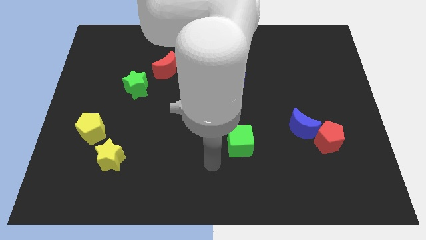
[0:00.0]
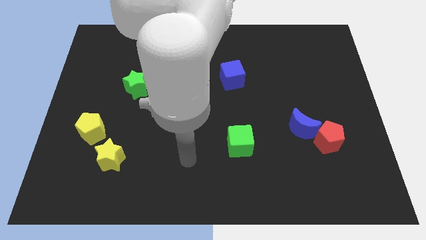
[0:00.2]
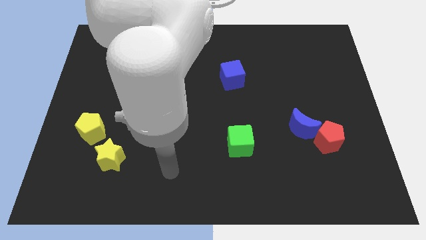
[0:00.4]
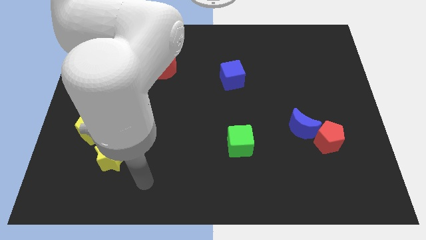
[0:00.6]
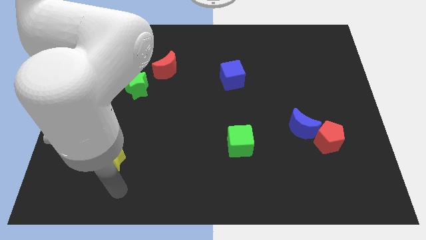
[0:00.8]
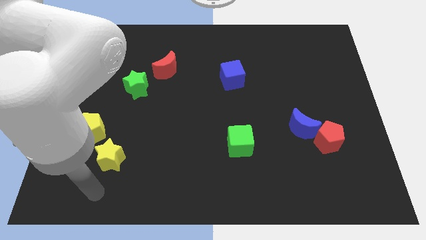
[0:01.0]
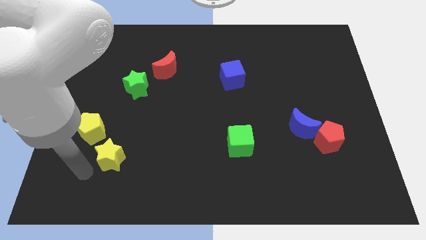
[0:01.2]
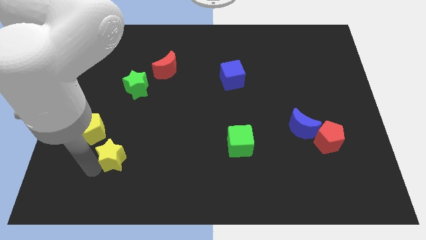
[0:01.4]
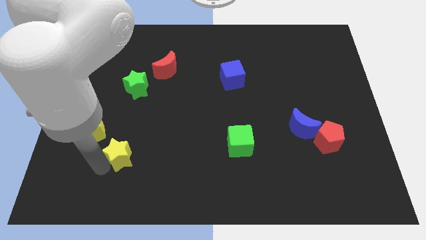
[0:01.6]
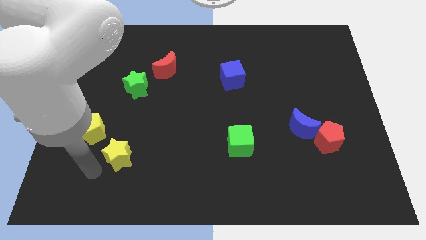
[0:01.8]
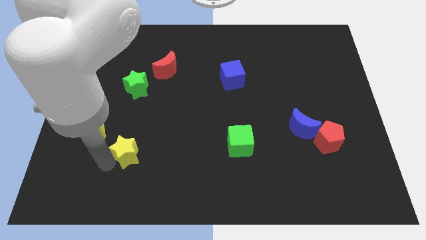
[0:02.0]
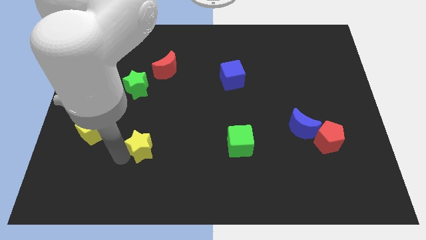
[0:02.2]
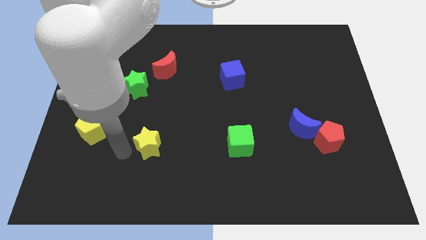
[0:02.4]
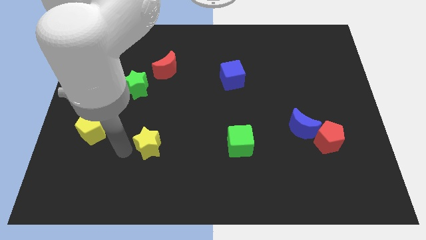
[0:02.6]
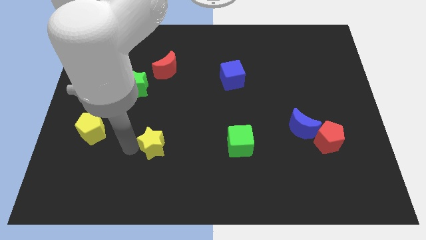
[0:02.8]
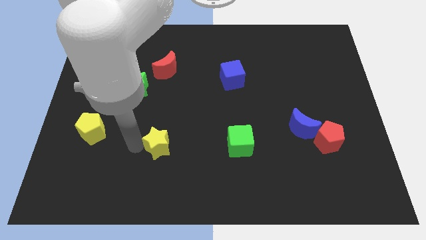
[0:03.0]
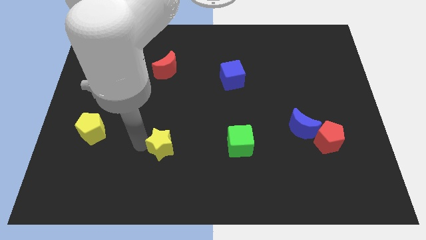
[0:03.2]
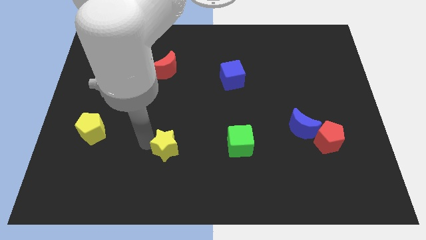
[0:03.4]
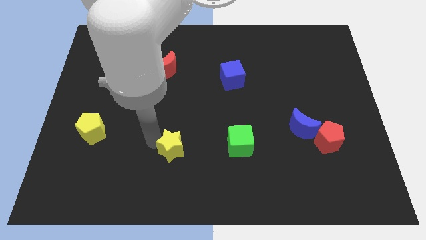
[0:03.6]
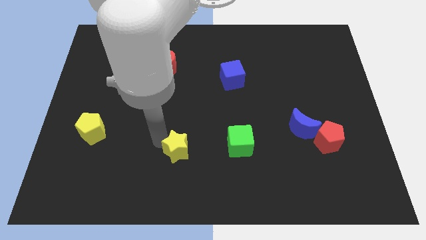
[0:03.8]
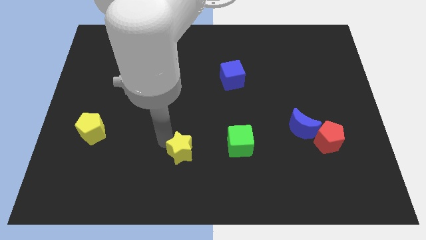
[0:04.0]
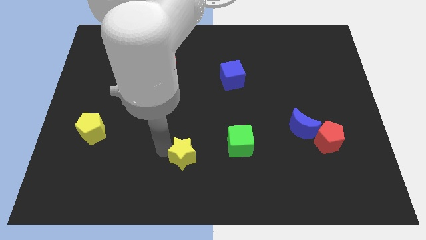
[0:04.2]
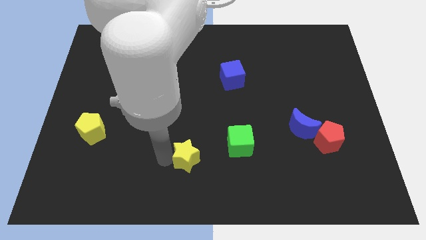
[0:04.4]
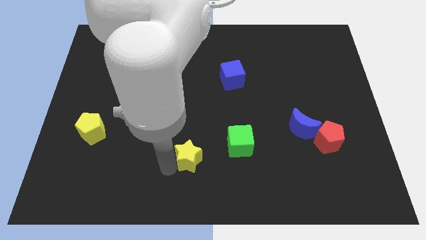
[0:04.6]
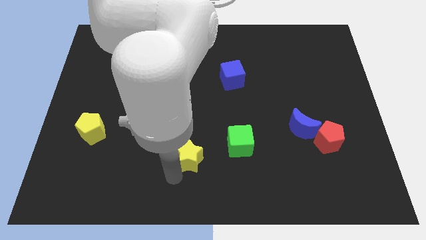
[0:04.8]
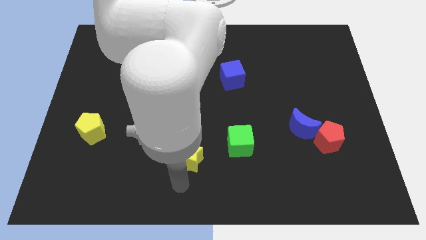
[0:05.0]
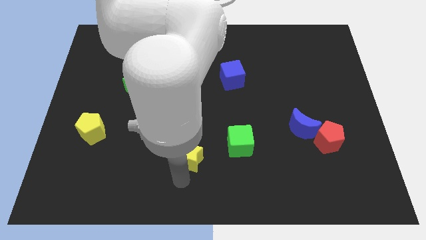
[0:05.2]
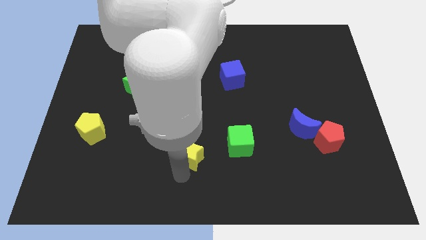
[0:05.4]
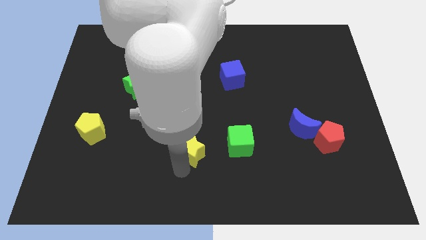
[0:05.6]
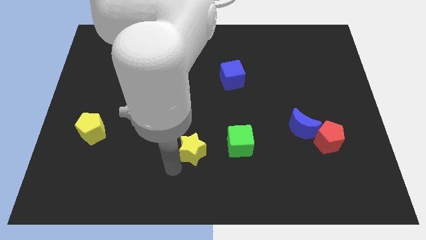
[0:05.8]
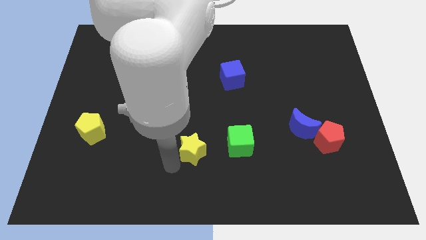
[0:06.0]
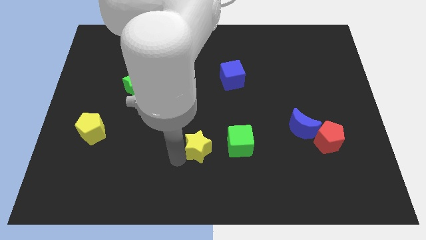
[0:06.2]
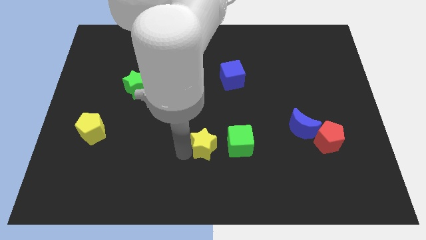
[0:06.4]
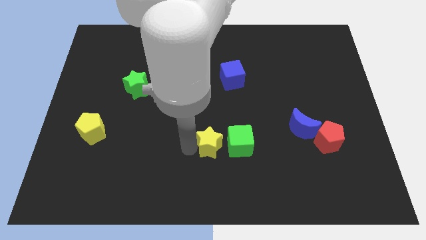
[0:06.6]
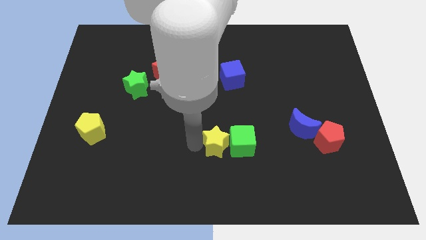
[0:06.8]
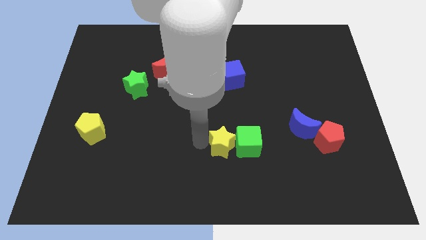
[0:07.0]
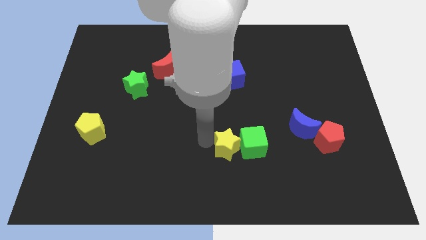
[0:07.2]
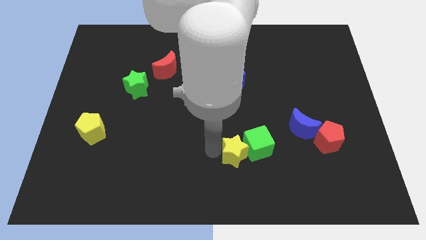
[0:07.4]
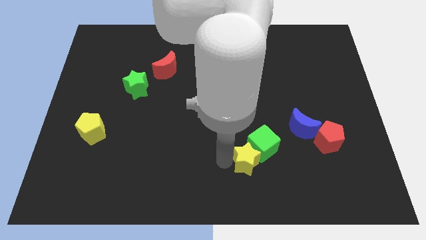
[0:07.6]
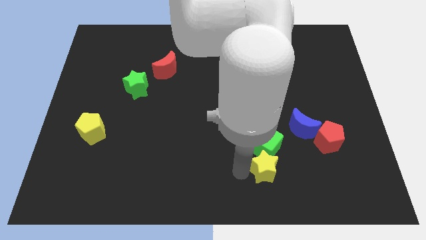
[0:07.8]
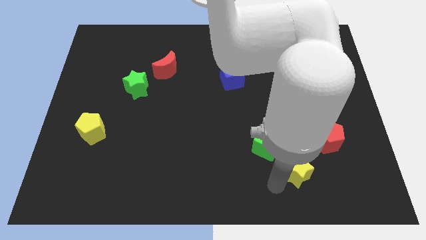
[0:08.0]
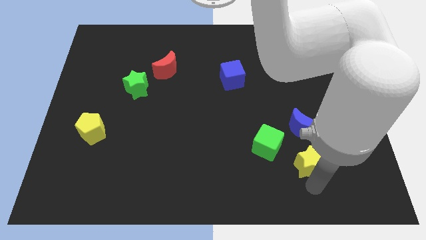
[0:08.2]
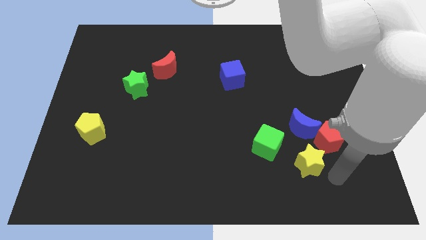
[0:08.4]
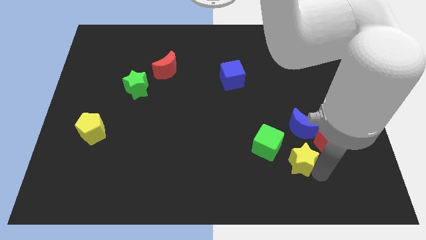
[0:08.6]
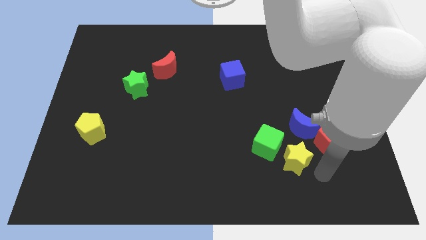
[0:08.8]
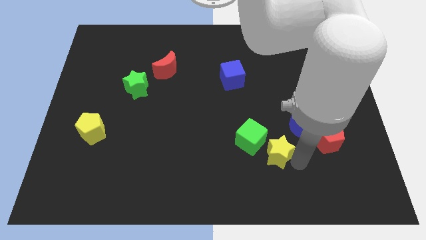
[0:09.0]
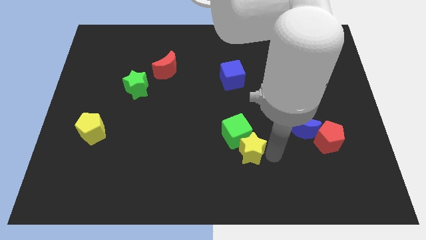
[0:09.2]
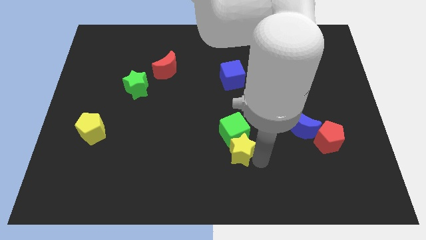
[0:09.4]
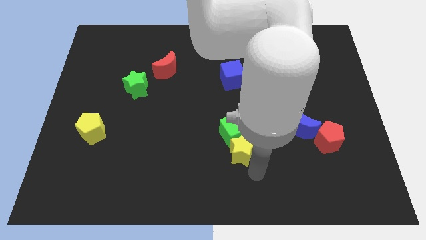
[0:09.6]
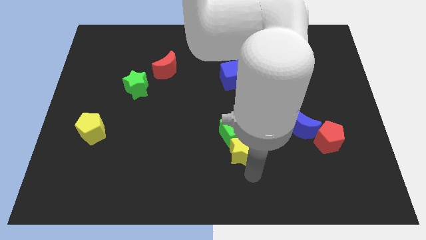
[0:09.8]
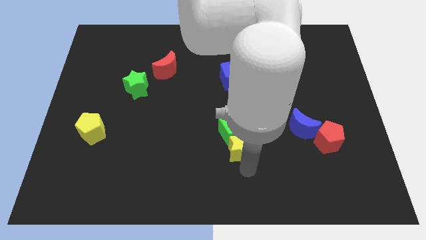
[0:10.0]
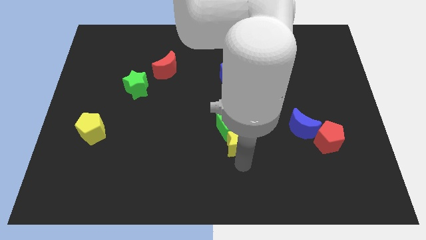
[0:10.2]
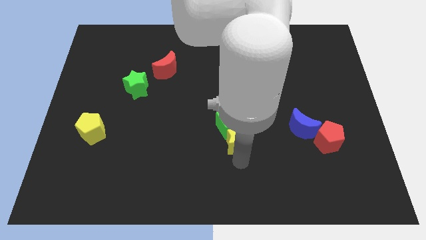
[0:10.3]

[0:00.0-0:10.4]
push the yellow star left of the blue moon

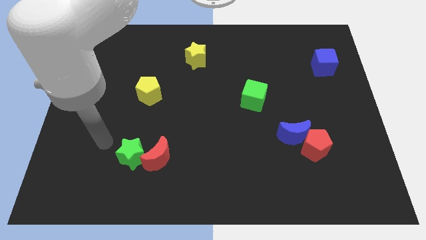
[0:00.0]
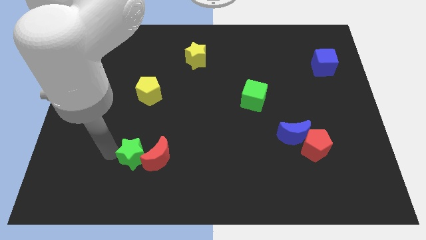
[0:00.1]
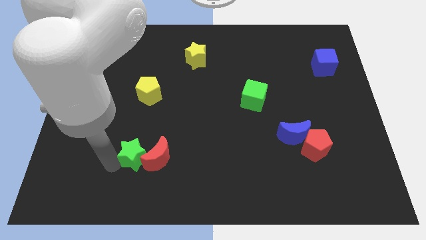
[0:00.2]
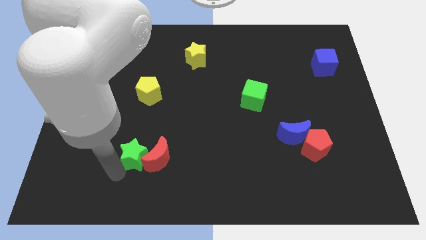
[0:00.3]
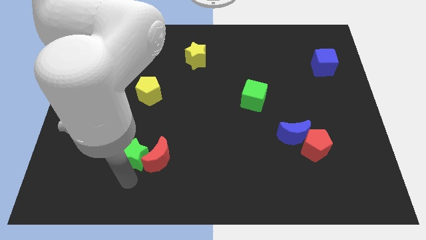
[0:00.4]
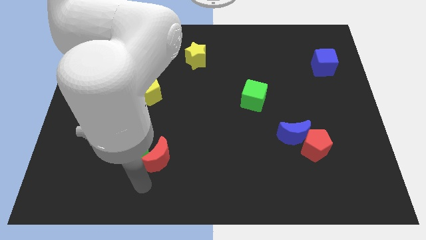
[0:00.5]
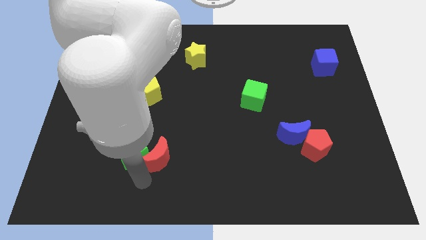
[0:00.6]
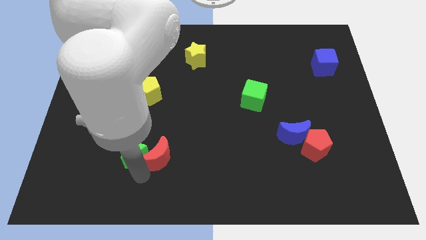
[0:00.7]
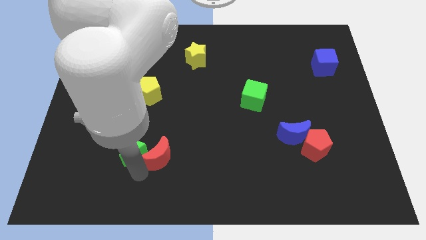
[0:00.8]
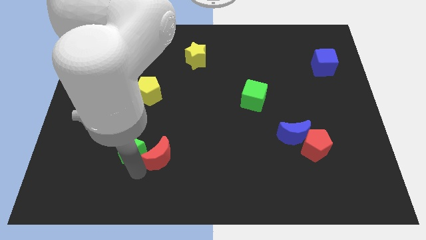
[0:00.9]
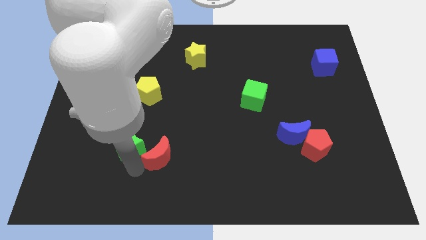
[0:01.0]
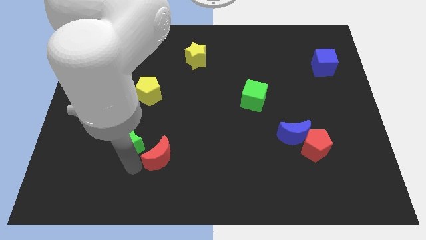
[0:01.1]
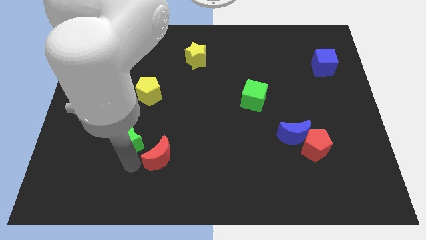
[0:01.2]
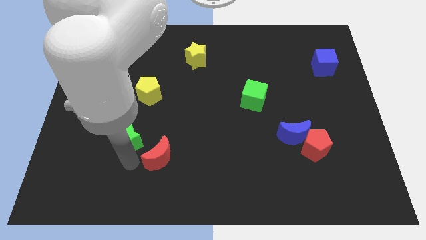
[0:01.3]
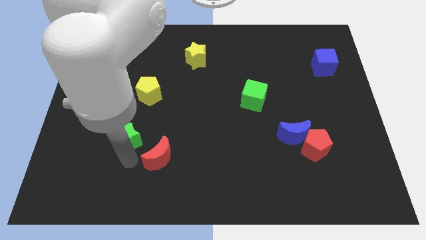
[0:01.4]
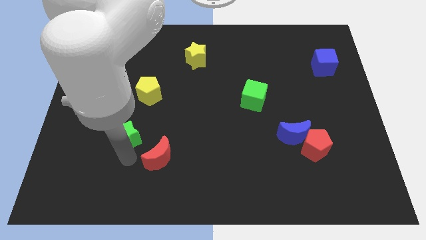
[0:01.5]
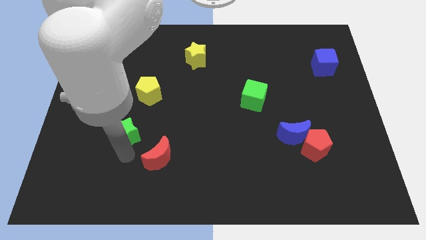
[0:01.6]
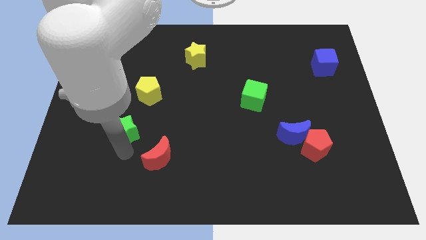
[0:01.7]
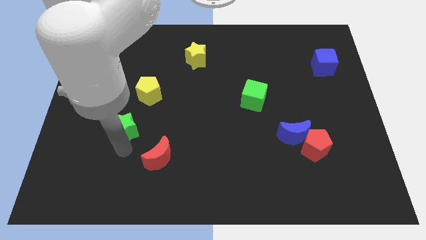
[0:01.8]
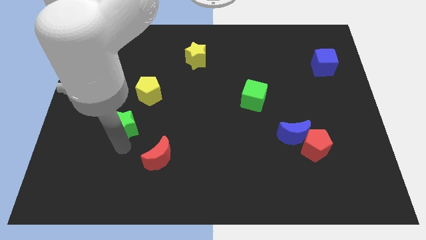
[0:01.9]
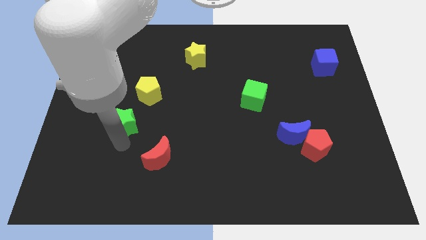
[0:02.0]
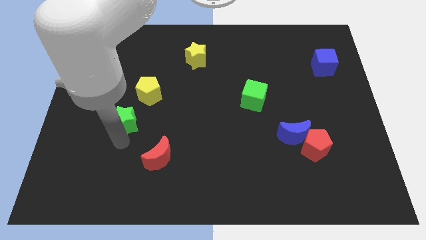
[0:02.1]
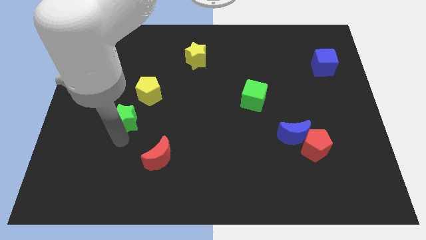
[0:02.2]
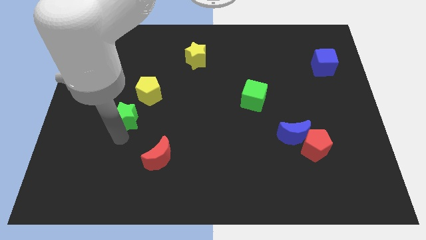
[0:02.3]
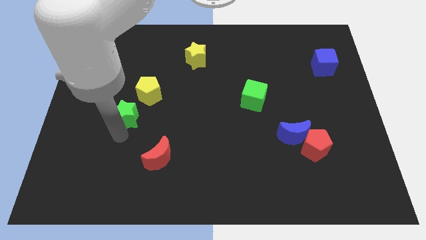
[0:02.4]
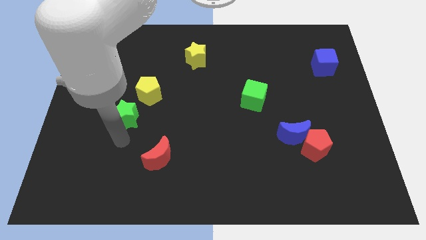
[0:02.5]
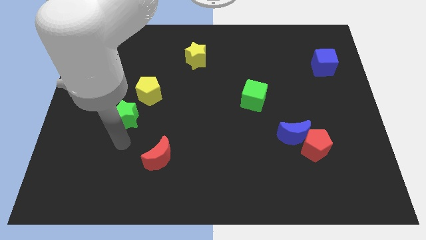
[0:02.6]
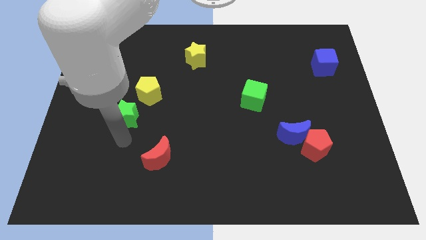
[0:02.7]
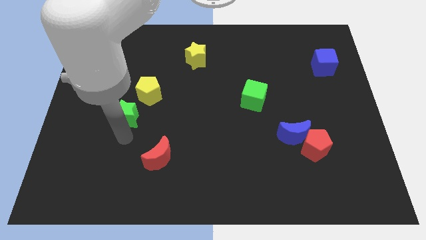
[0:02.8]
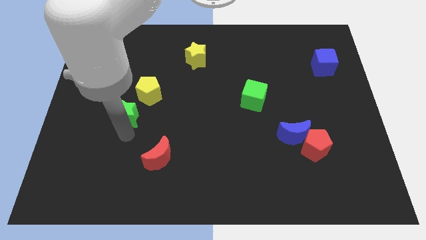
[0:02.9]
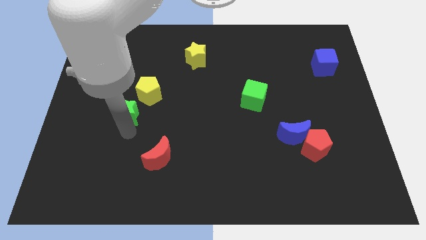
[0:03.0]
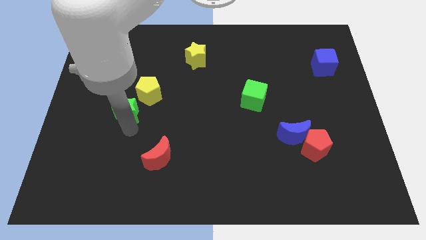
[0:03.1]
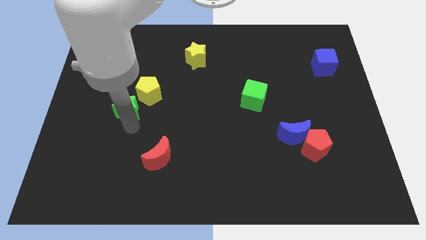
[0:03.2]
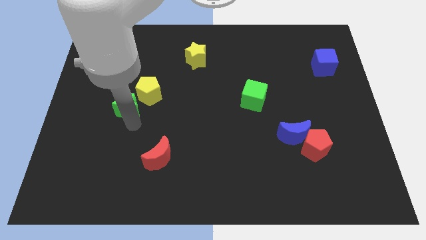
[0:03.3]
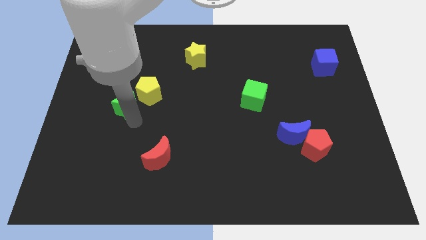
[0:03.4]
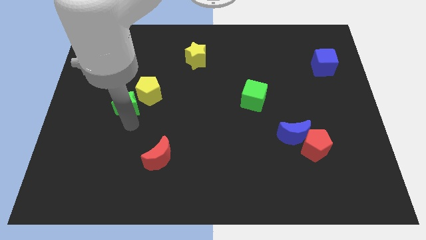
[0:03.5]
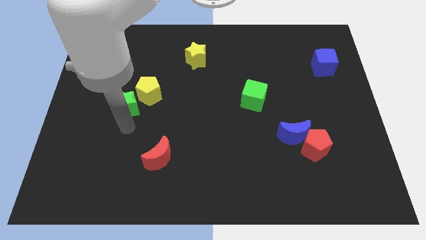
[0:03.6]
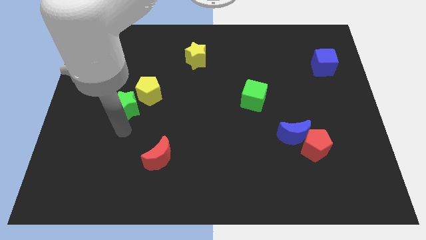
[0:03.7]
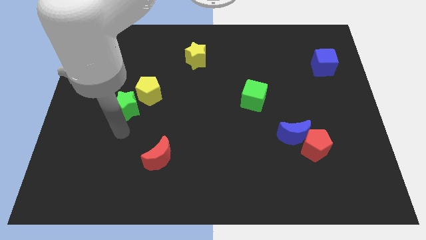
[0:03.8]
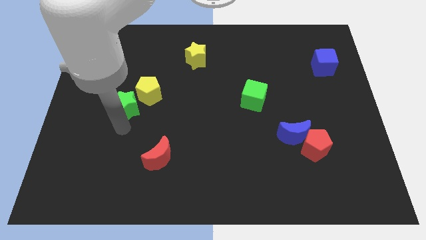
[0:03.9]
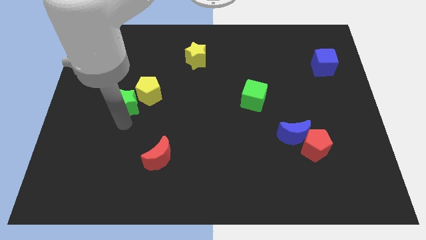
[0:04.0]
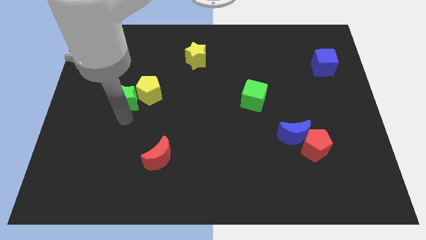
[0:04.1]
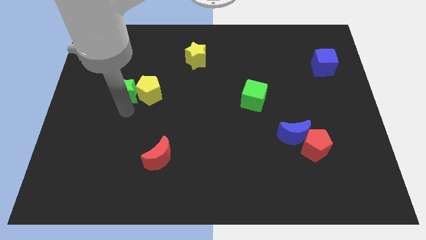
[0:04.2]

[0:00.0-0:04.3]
put the green star to the top left side of the yellow pentagon
